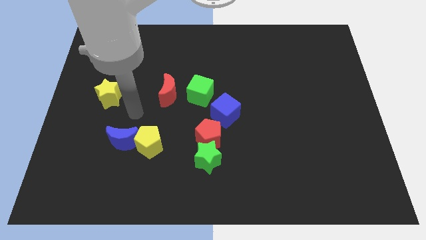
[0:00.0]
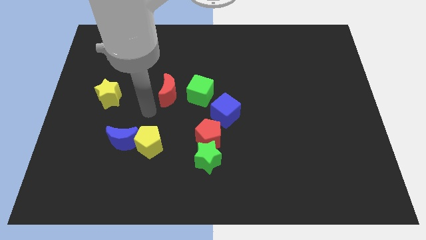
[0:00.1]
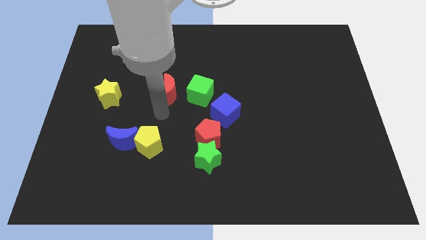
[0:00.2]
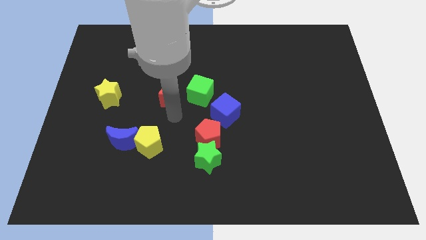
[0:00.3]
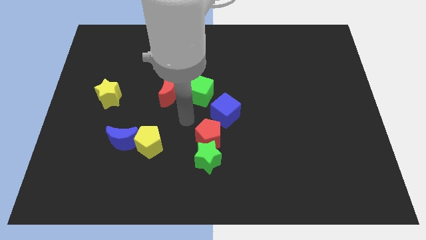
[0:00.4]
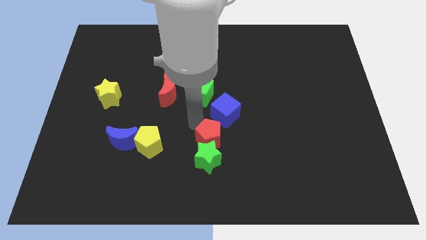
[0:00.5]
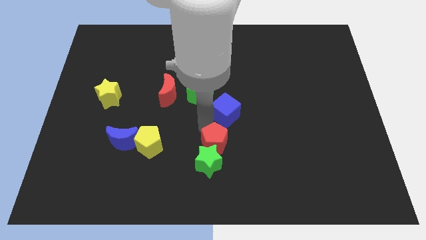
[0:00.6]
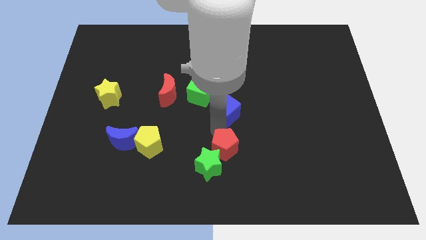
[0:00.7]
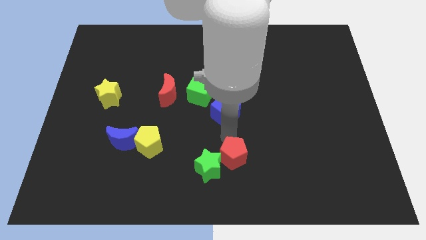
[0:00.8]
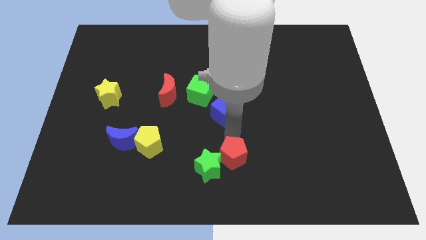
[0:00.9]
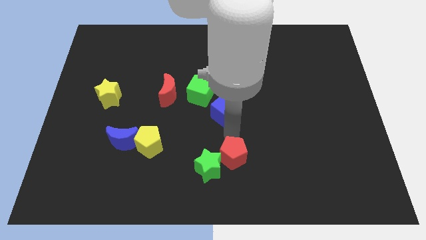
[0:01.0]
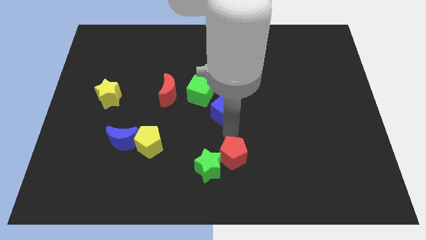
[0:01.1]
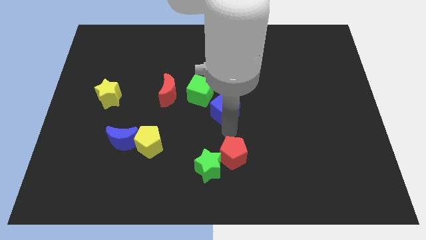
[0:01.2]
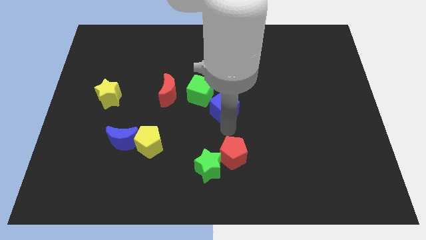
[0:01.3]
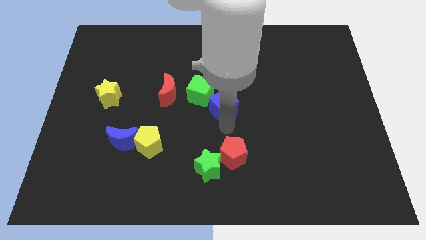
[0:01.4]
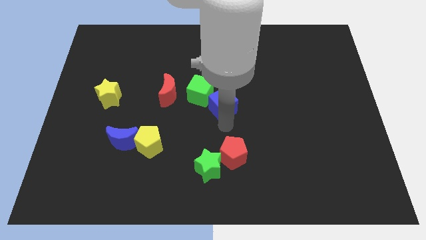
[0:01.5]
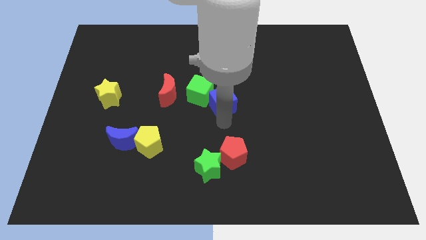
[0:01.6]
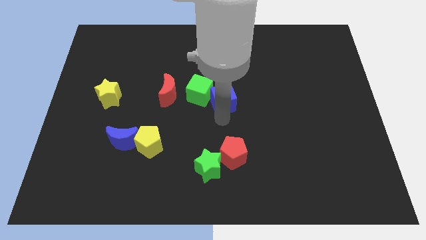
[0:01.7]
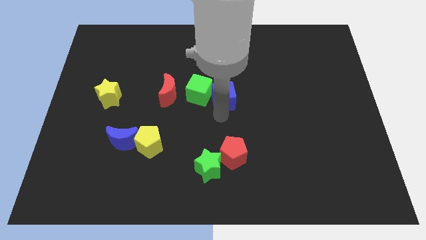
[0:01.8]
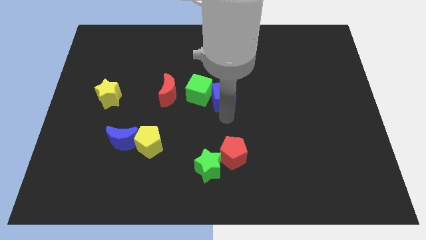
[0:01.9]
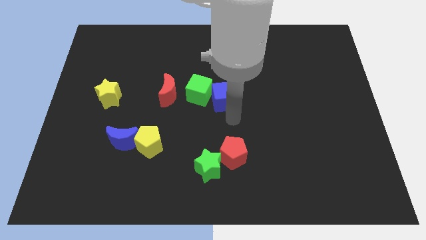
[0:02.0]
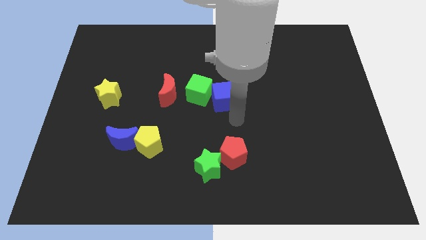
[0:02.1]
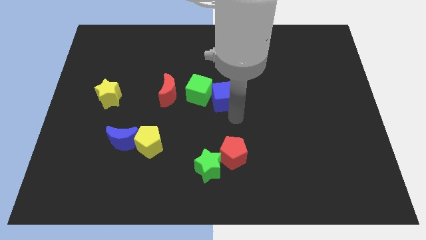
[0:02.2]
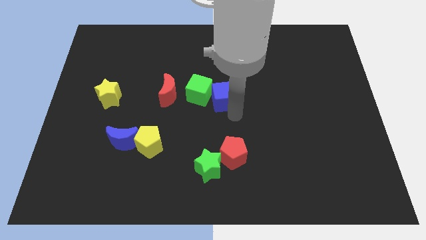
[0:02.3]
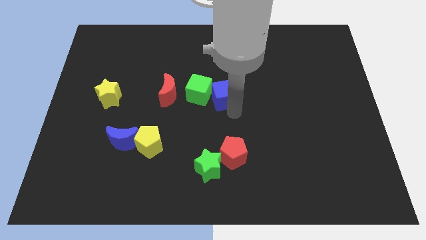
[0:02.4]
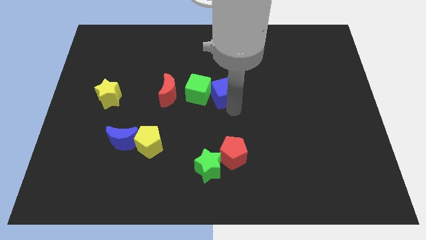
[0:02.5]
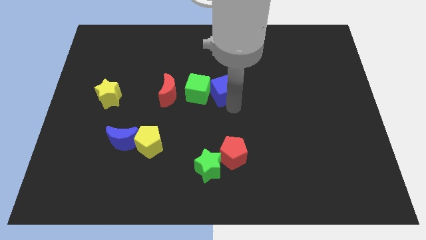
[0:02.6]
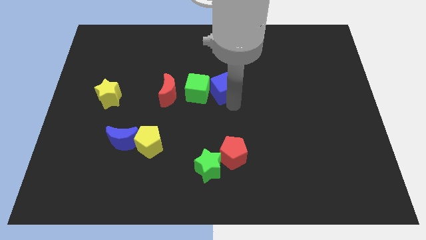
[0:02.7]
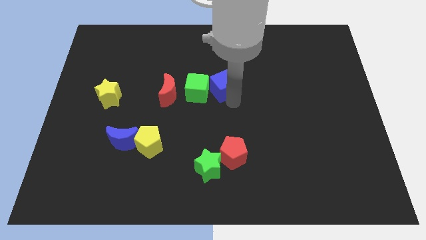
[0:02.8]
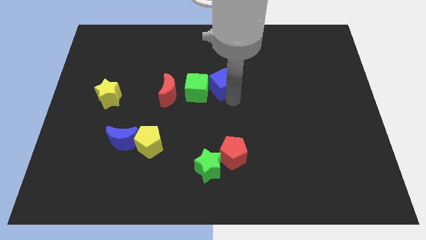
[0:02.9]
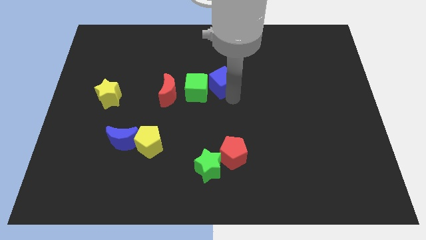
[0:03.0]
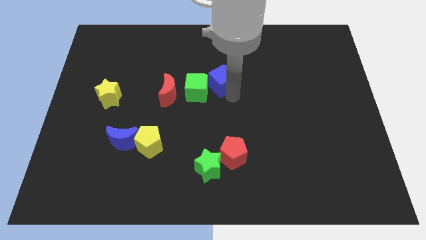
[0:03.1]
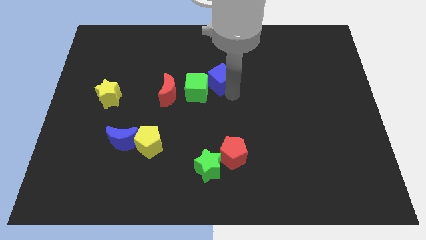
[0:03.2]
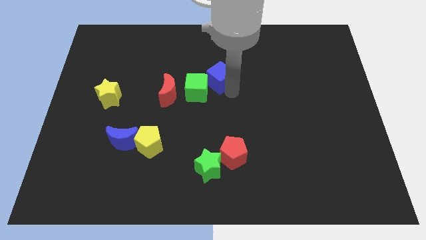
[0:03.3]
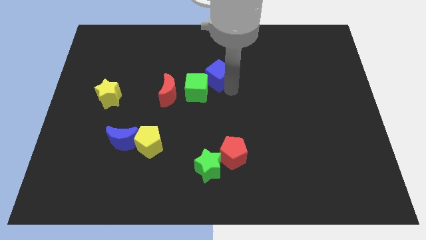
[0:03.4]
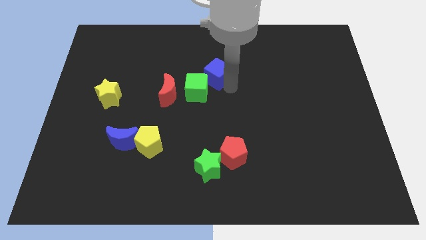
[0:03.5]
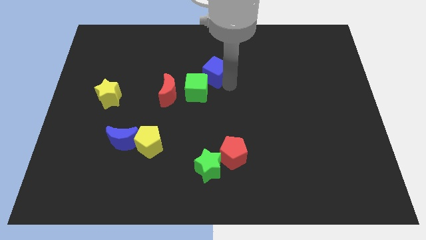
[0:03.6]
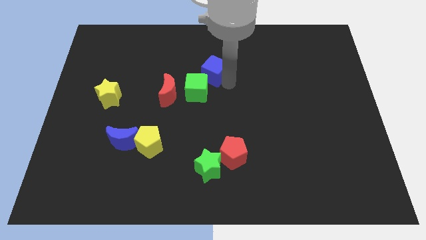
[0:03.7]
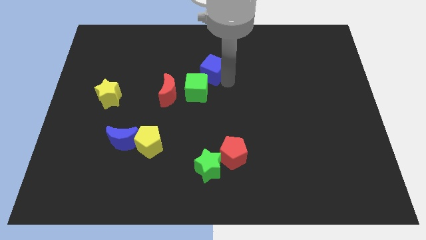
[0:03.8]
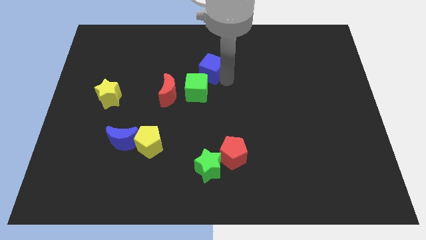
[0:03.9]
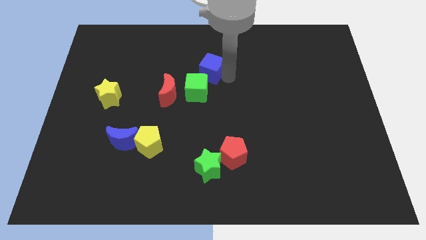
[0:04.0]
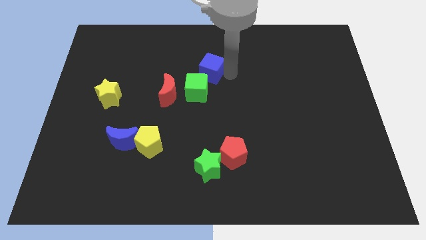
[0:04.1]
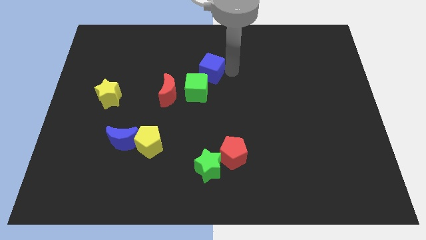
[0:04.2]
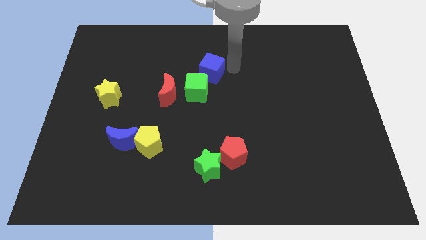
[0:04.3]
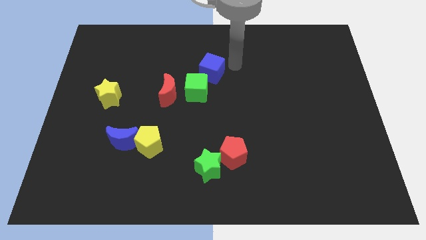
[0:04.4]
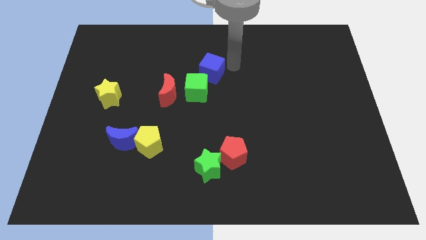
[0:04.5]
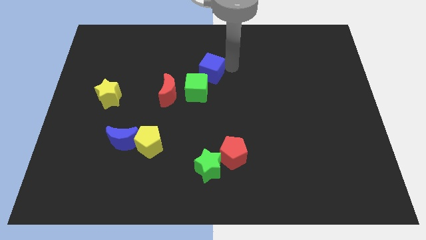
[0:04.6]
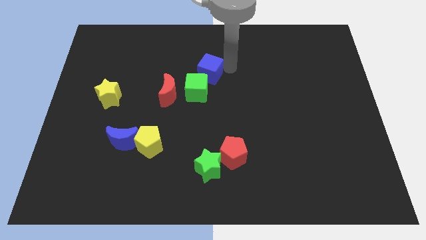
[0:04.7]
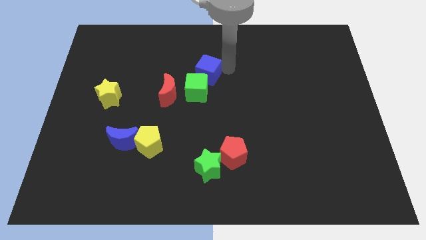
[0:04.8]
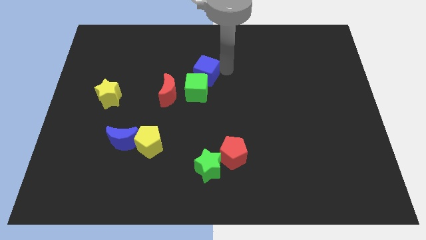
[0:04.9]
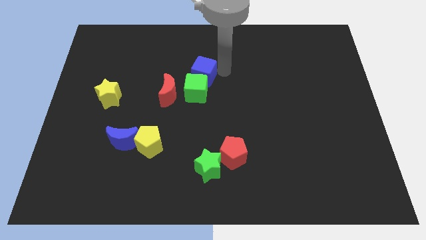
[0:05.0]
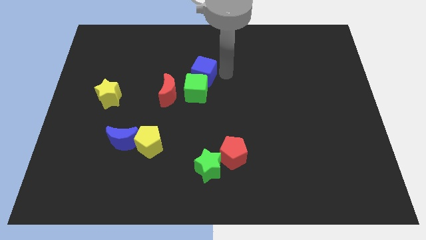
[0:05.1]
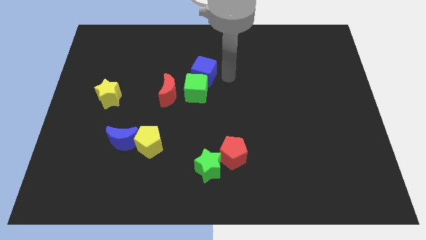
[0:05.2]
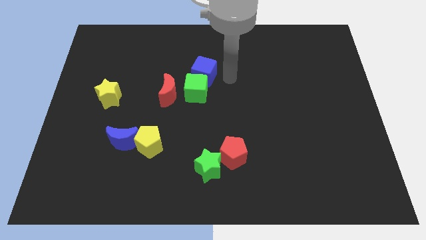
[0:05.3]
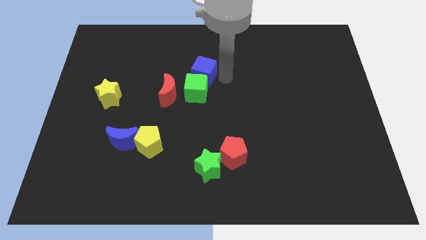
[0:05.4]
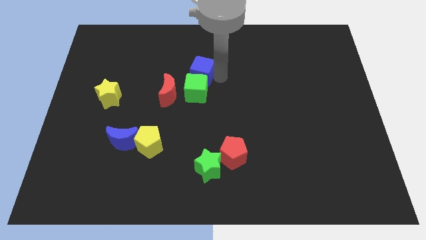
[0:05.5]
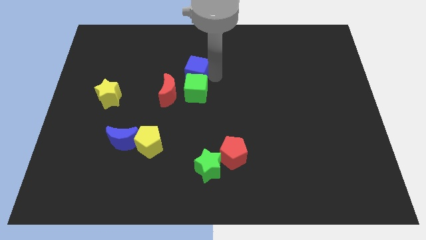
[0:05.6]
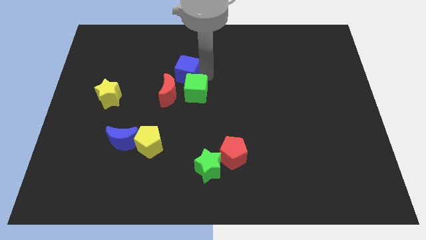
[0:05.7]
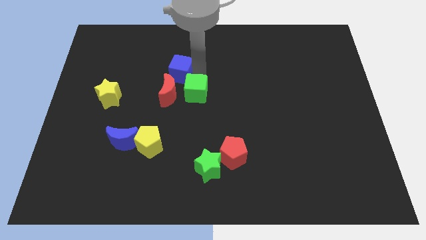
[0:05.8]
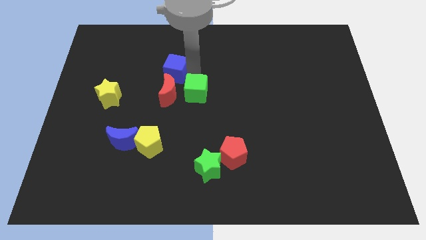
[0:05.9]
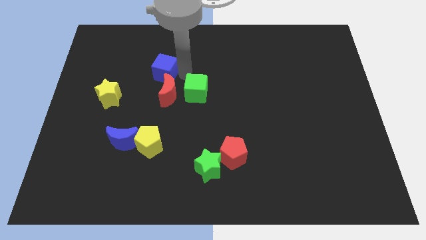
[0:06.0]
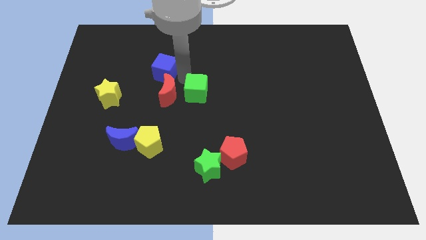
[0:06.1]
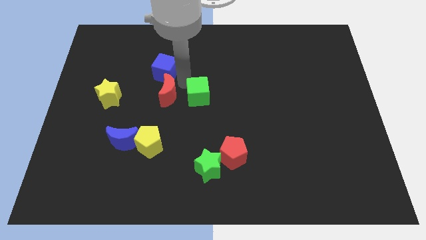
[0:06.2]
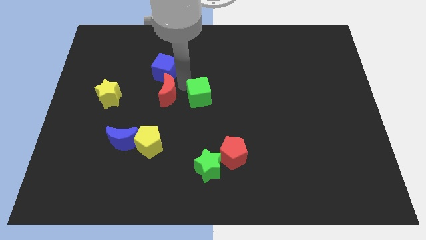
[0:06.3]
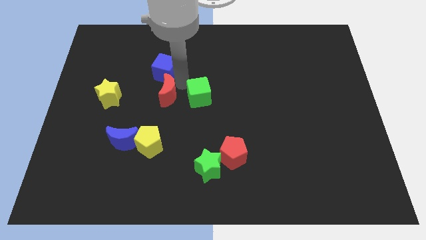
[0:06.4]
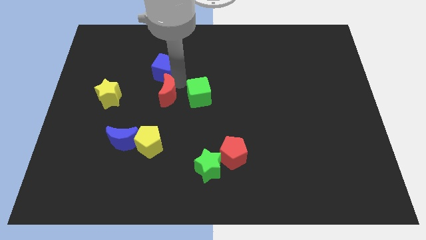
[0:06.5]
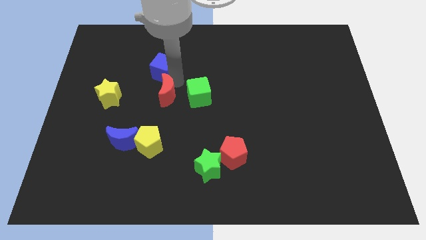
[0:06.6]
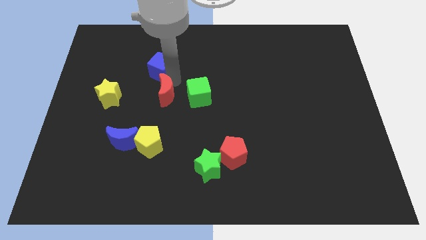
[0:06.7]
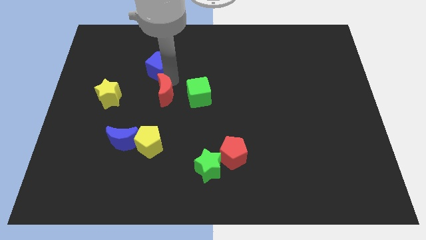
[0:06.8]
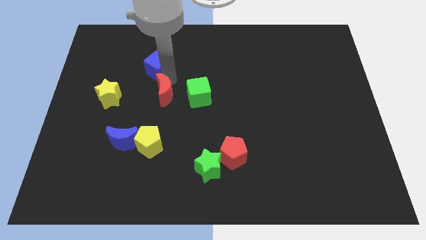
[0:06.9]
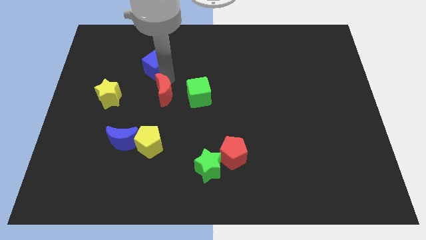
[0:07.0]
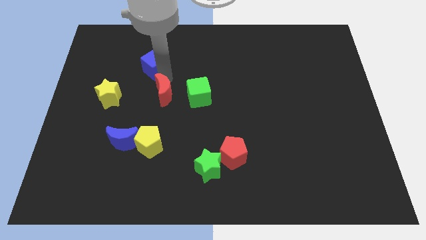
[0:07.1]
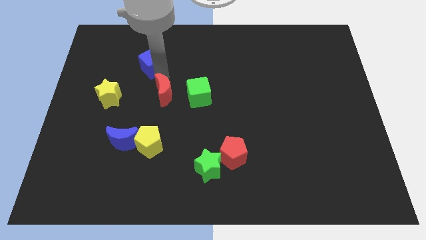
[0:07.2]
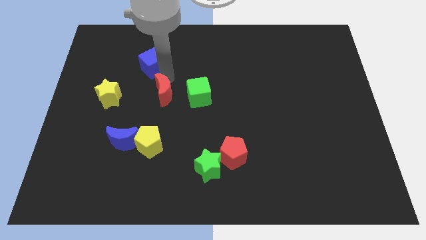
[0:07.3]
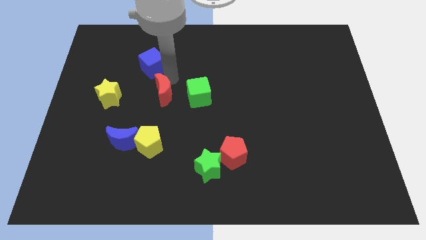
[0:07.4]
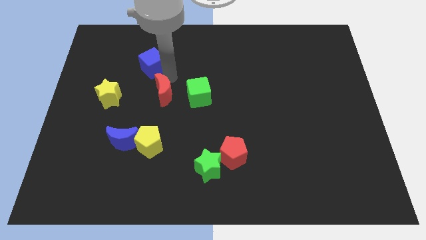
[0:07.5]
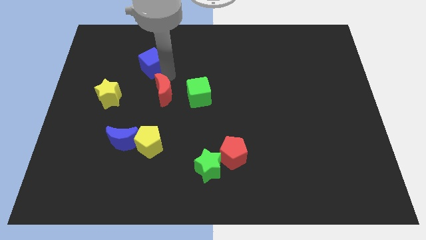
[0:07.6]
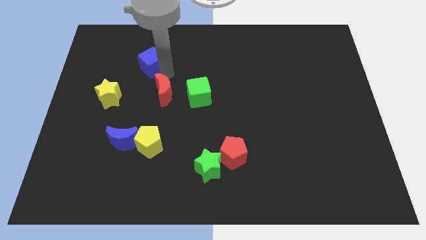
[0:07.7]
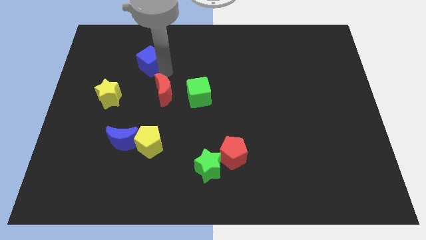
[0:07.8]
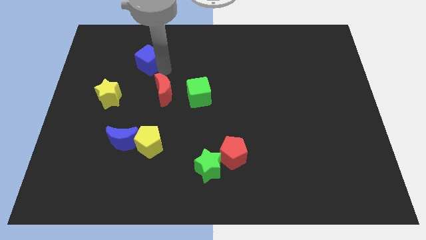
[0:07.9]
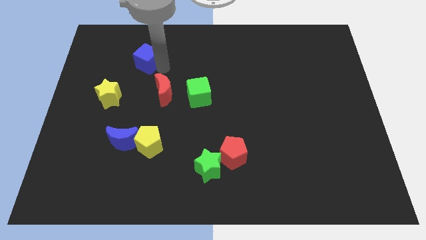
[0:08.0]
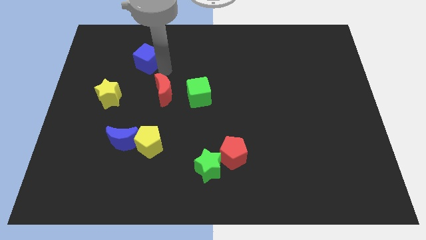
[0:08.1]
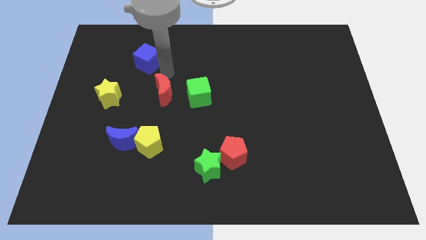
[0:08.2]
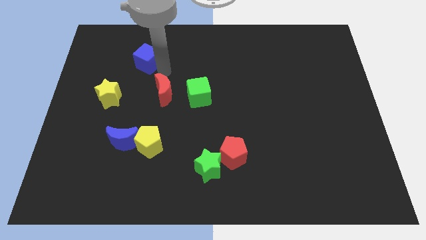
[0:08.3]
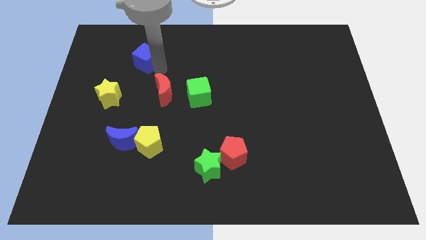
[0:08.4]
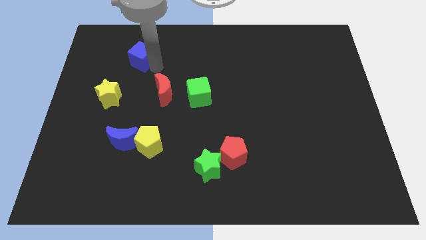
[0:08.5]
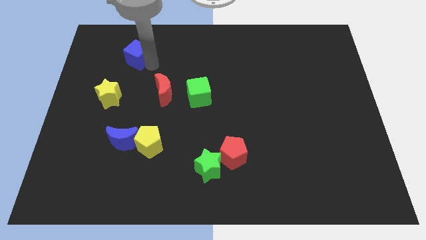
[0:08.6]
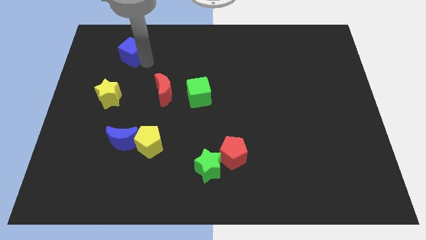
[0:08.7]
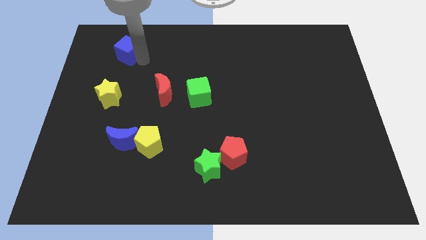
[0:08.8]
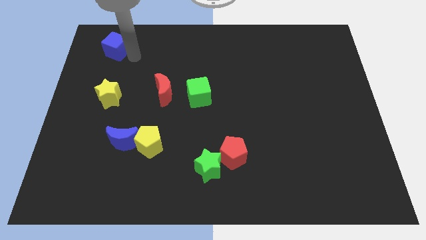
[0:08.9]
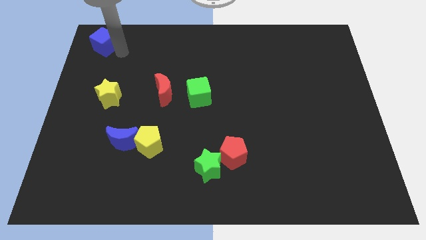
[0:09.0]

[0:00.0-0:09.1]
push the blue cube to the top left
